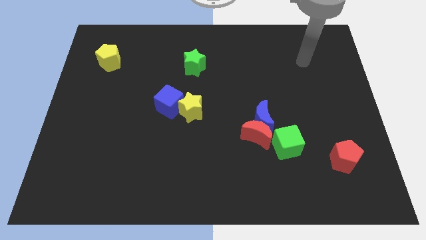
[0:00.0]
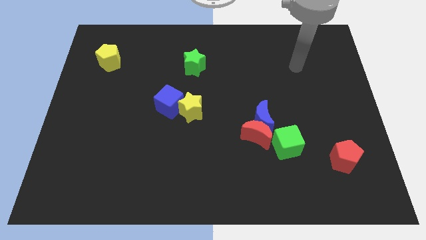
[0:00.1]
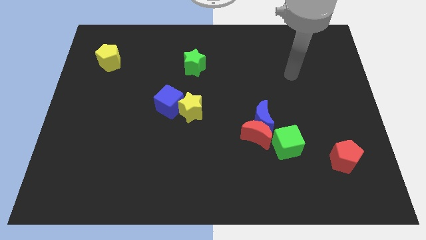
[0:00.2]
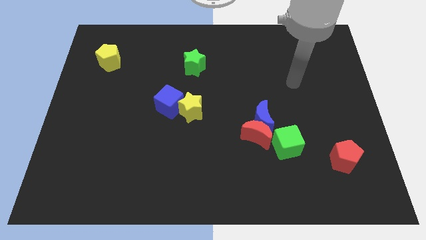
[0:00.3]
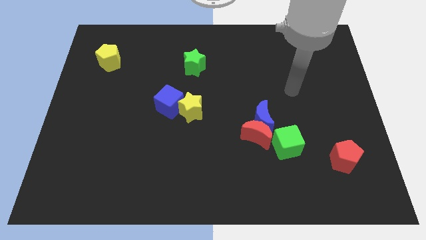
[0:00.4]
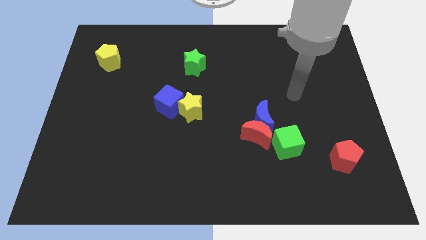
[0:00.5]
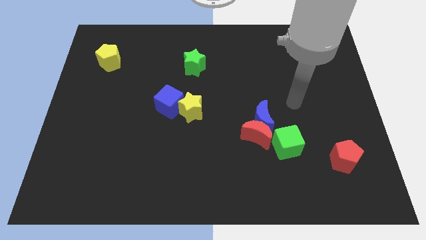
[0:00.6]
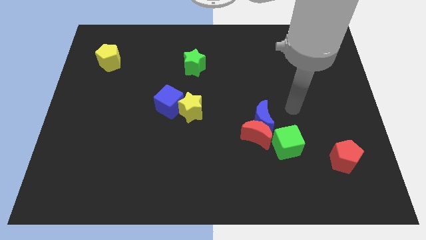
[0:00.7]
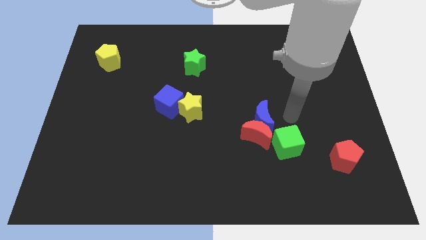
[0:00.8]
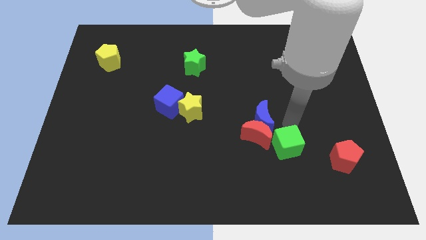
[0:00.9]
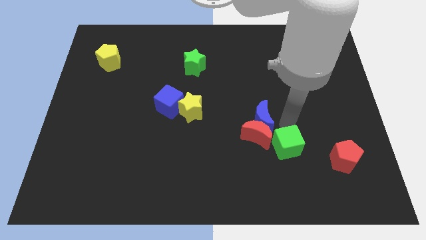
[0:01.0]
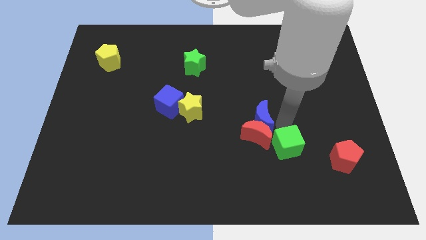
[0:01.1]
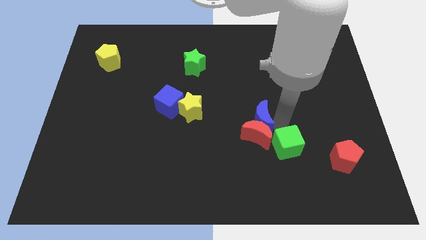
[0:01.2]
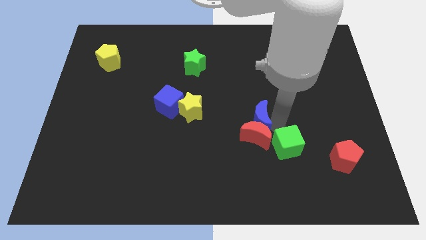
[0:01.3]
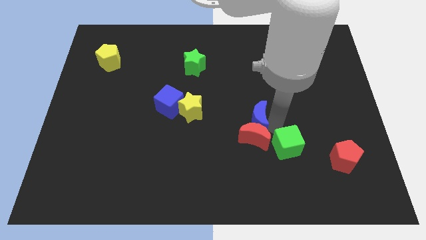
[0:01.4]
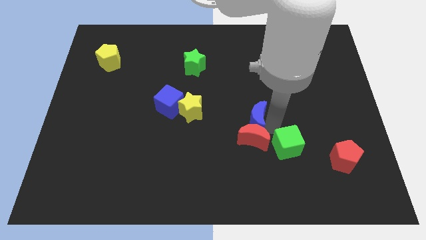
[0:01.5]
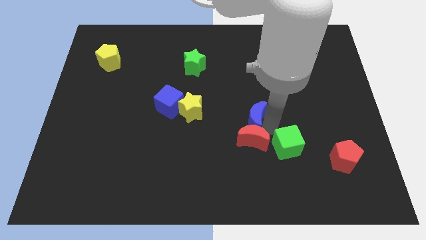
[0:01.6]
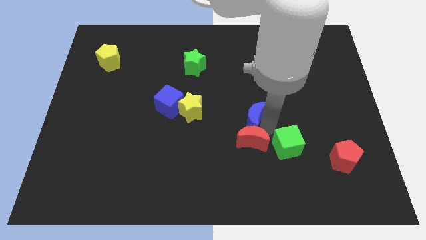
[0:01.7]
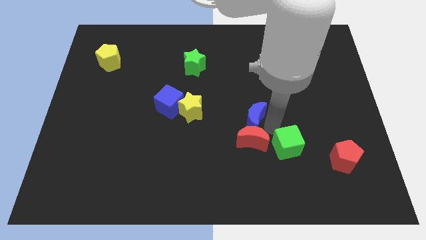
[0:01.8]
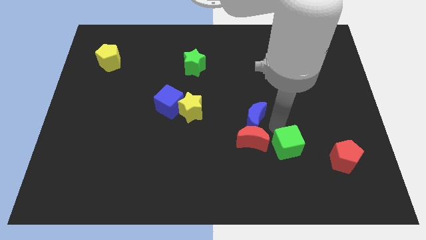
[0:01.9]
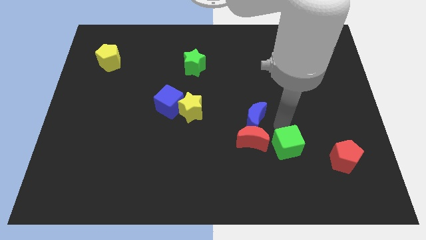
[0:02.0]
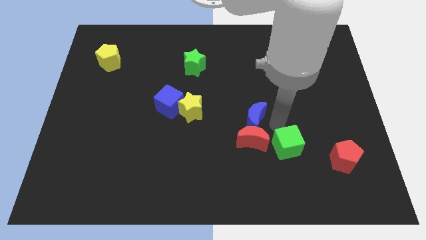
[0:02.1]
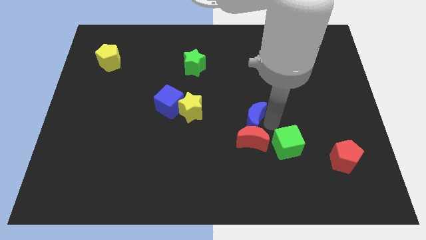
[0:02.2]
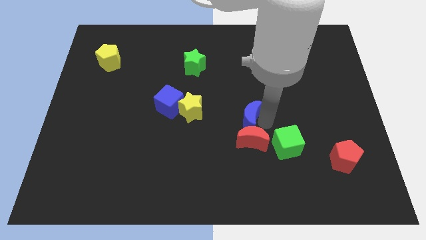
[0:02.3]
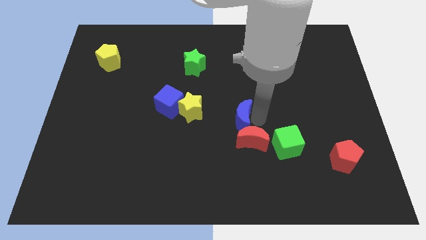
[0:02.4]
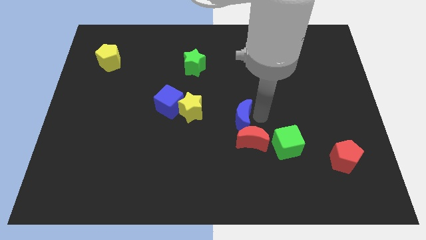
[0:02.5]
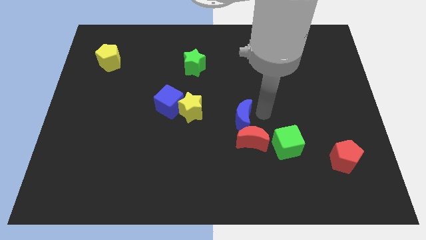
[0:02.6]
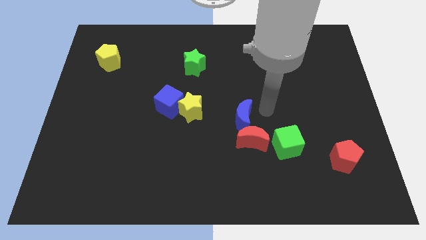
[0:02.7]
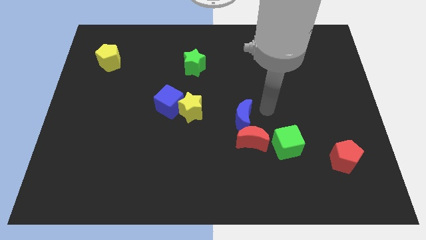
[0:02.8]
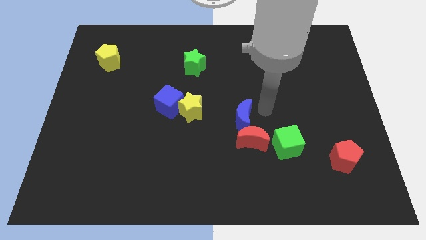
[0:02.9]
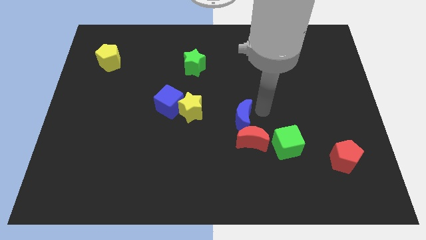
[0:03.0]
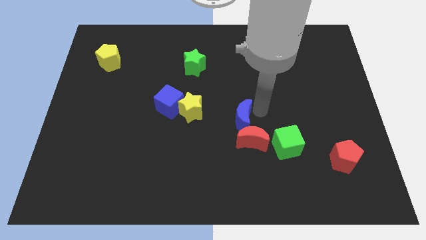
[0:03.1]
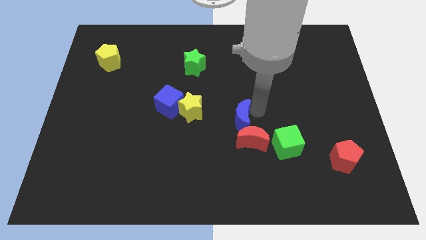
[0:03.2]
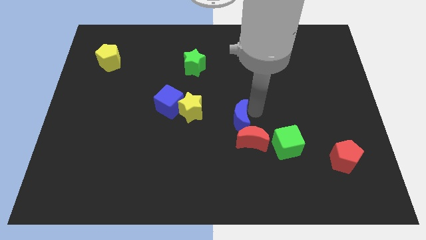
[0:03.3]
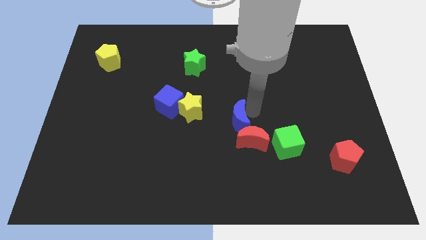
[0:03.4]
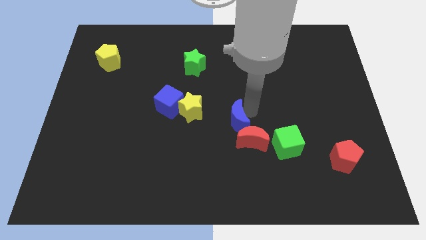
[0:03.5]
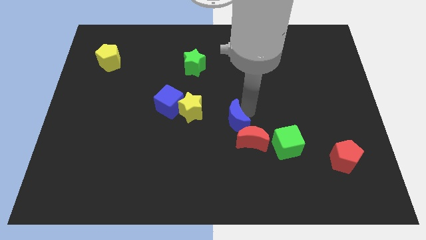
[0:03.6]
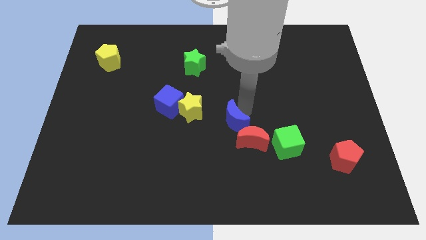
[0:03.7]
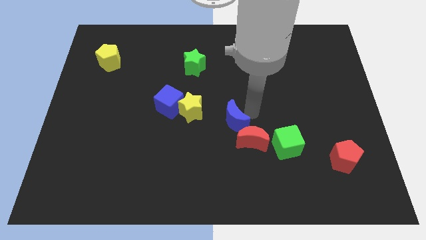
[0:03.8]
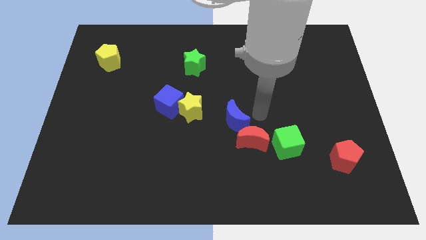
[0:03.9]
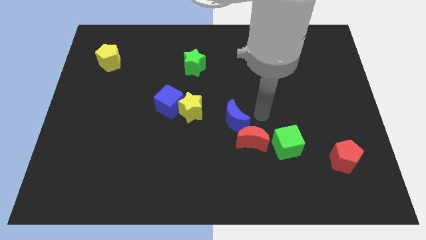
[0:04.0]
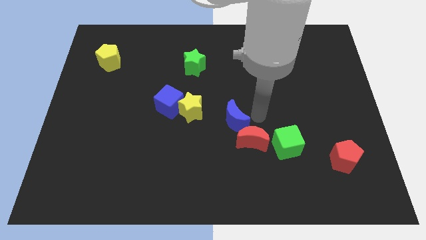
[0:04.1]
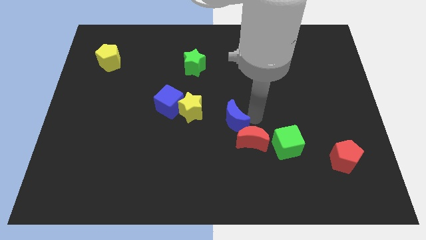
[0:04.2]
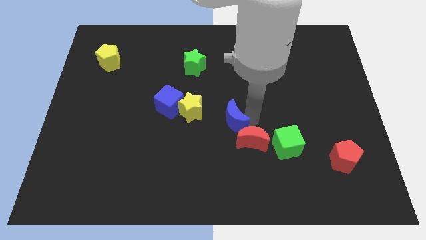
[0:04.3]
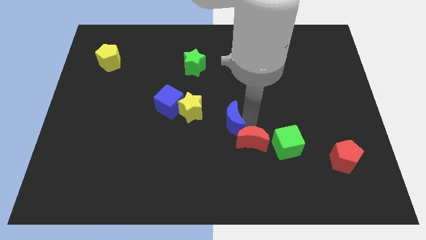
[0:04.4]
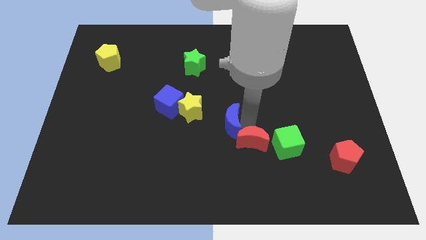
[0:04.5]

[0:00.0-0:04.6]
push the blue moon a bit left

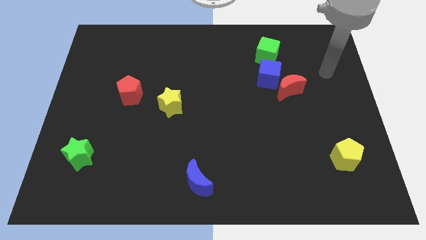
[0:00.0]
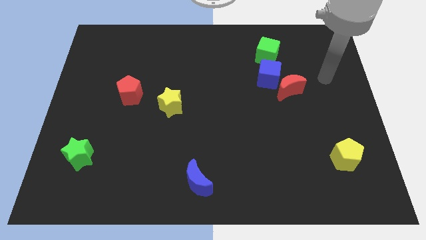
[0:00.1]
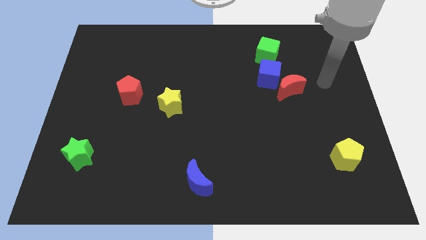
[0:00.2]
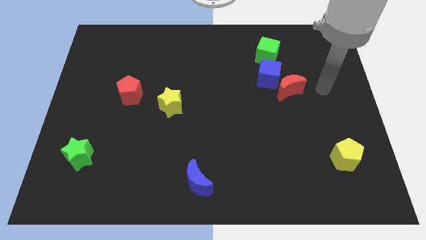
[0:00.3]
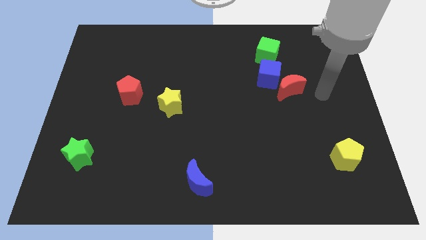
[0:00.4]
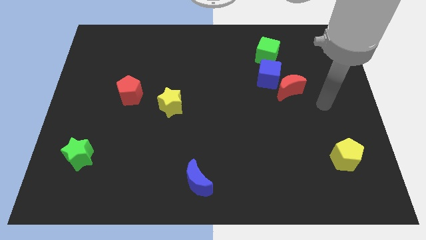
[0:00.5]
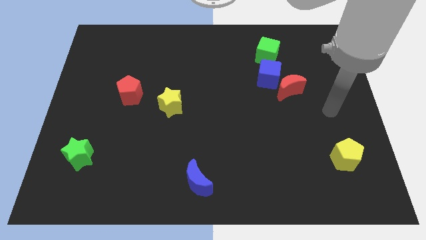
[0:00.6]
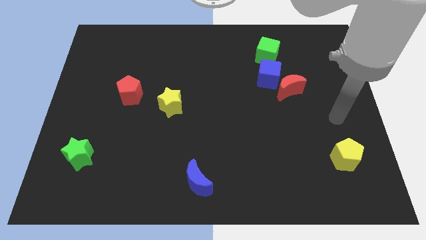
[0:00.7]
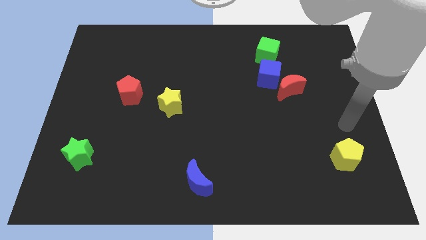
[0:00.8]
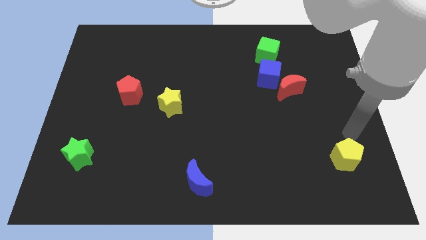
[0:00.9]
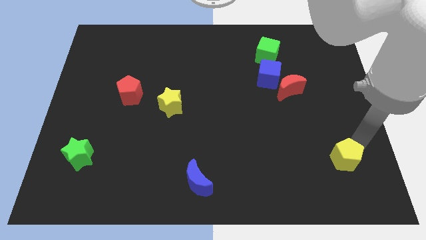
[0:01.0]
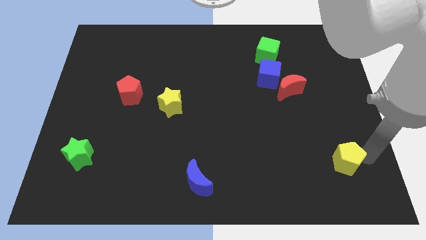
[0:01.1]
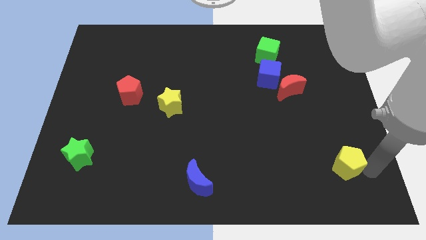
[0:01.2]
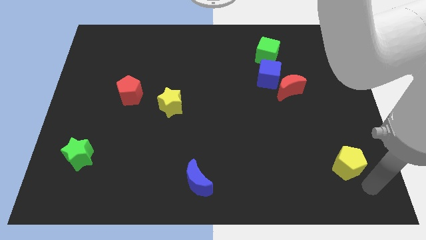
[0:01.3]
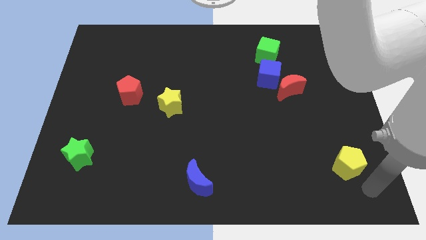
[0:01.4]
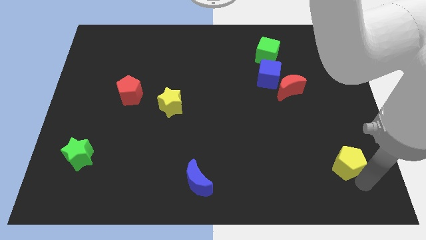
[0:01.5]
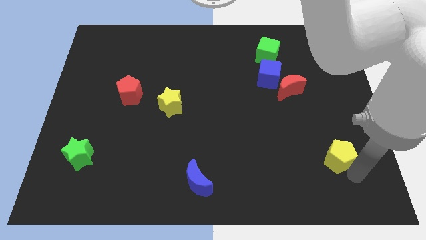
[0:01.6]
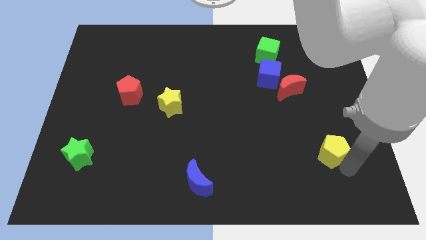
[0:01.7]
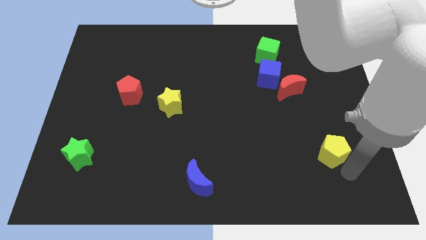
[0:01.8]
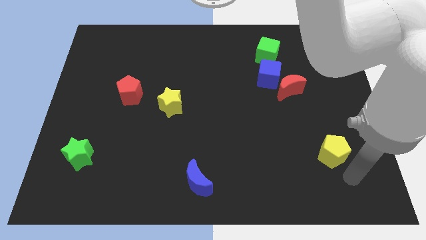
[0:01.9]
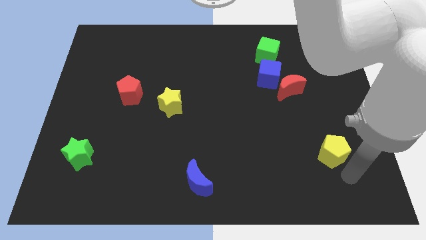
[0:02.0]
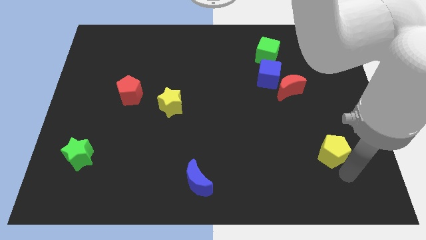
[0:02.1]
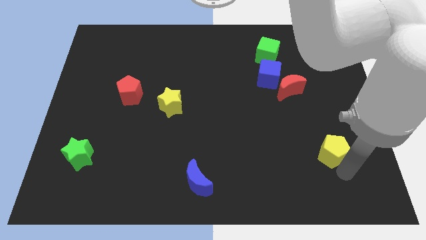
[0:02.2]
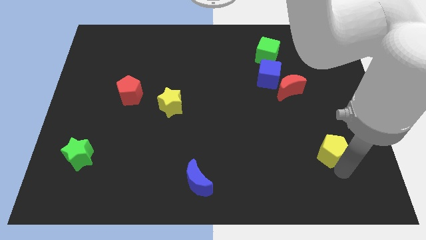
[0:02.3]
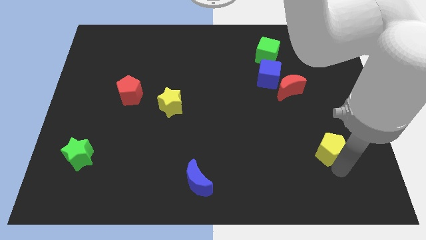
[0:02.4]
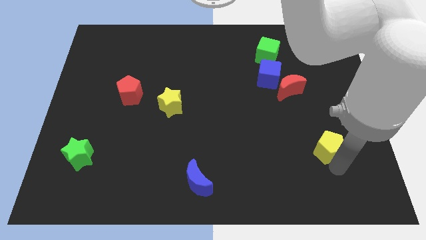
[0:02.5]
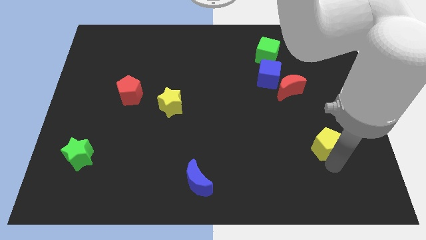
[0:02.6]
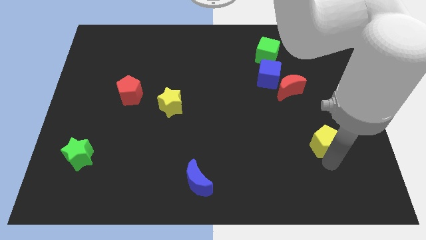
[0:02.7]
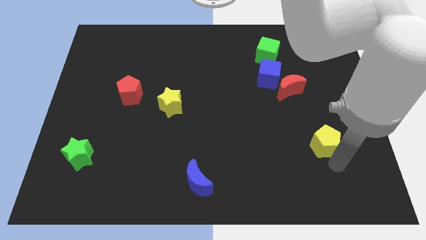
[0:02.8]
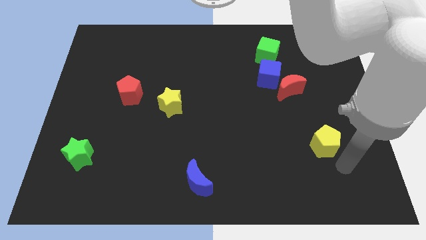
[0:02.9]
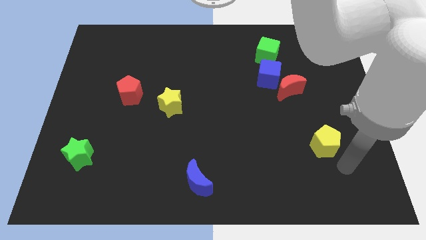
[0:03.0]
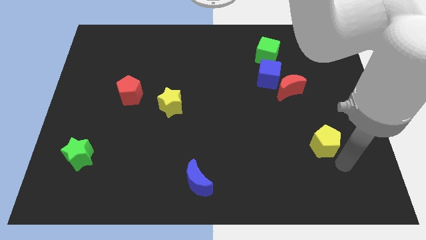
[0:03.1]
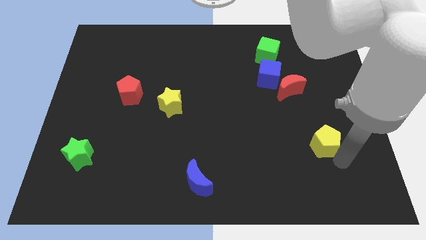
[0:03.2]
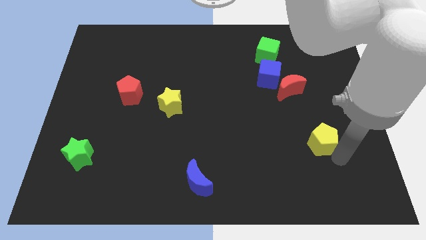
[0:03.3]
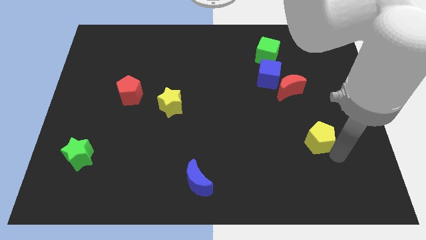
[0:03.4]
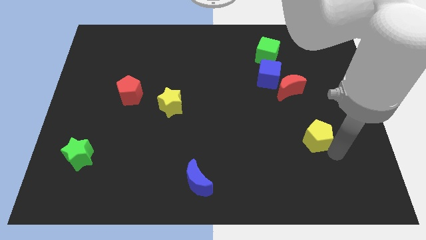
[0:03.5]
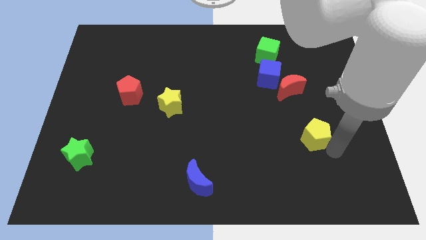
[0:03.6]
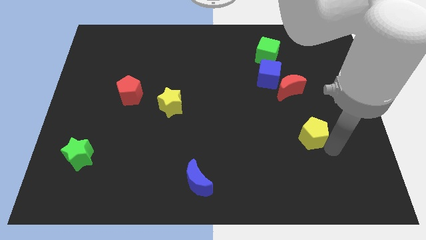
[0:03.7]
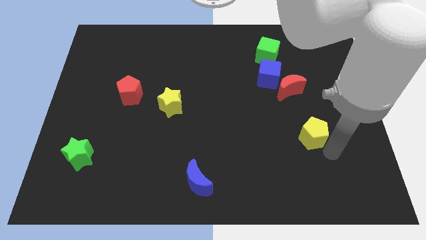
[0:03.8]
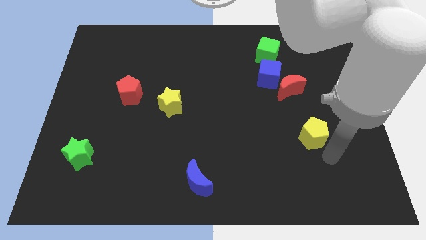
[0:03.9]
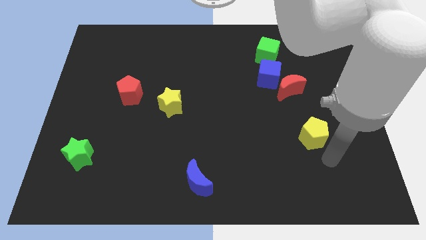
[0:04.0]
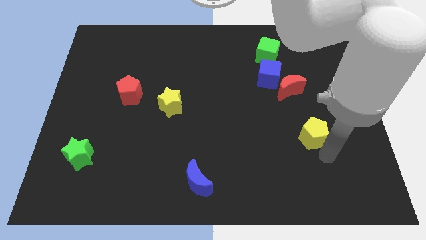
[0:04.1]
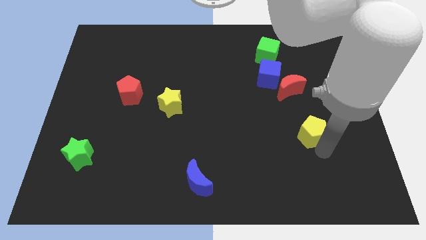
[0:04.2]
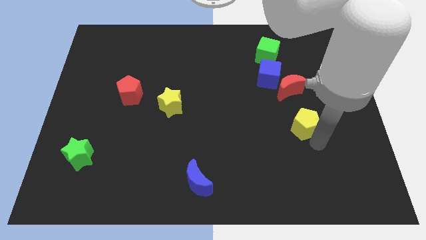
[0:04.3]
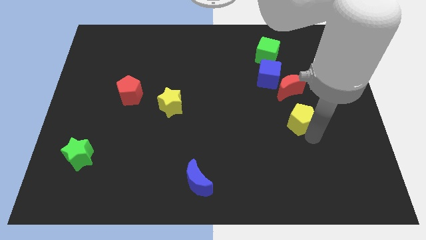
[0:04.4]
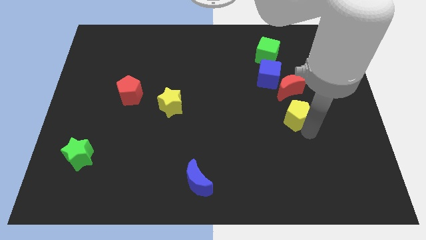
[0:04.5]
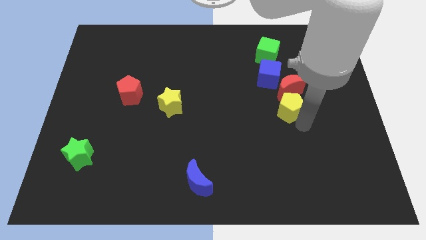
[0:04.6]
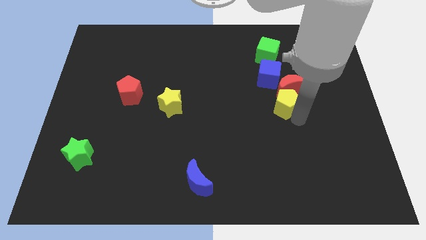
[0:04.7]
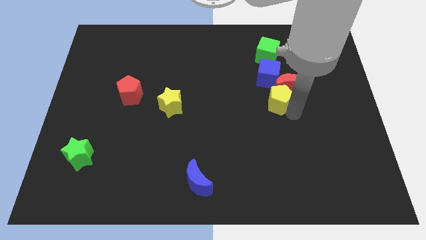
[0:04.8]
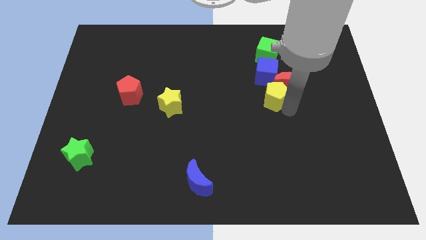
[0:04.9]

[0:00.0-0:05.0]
slide the yellow pentagon diagonally up and to the left
